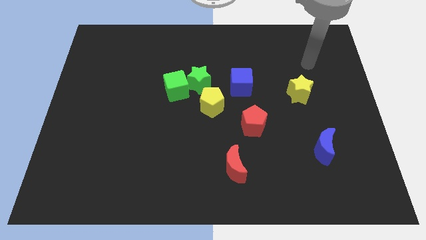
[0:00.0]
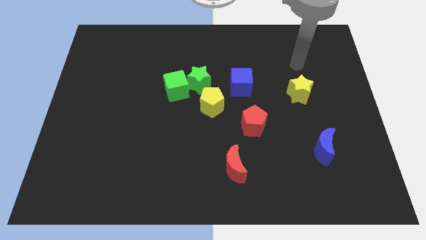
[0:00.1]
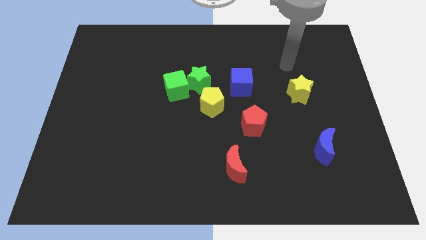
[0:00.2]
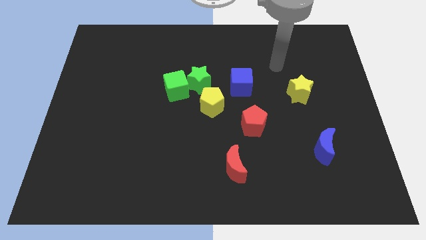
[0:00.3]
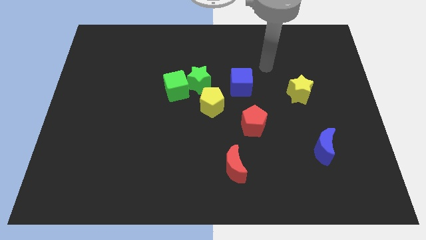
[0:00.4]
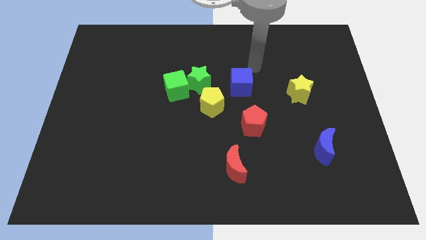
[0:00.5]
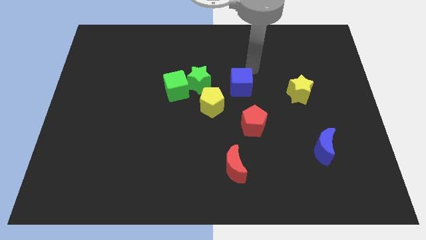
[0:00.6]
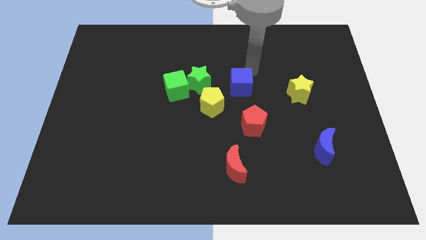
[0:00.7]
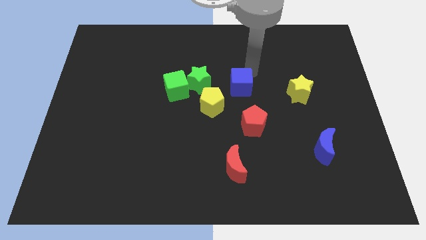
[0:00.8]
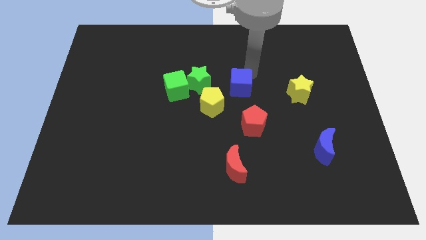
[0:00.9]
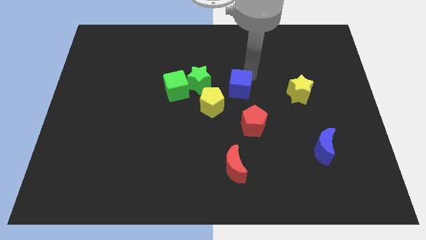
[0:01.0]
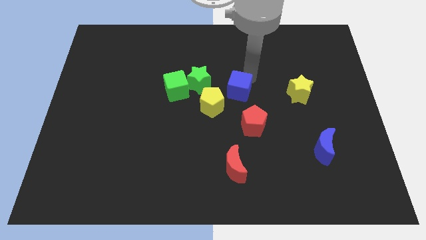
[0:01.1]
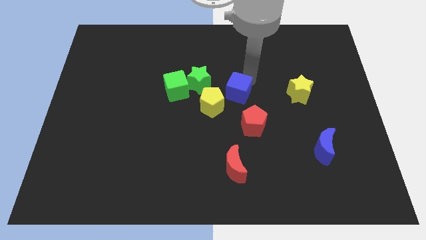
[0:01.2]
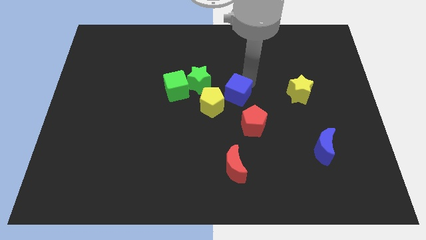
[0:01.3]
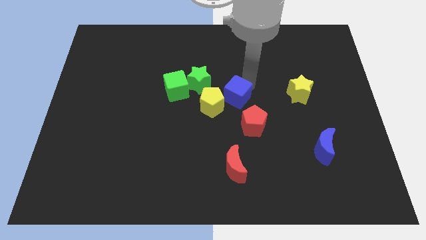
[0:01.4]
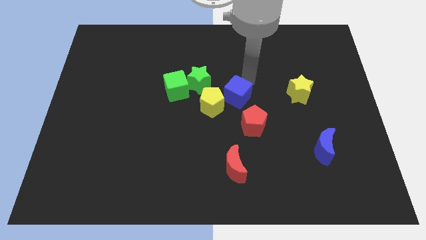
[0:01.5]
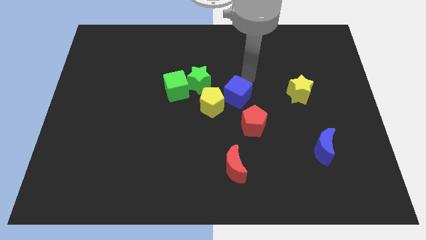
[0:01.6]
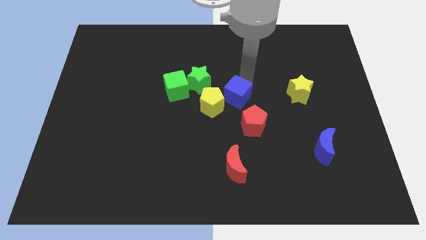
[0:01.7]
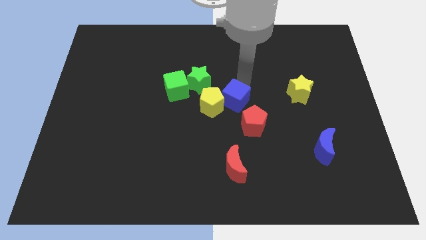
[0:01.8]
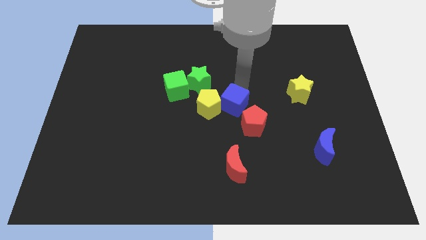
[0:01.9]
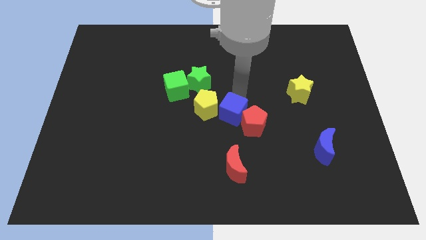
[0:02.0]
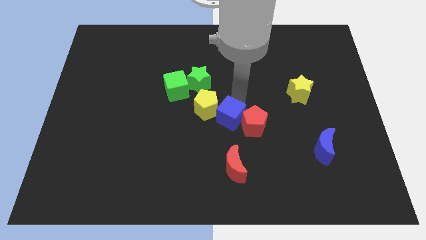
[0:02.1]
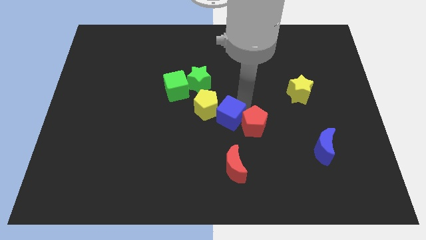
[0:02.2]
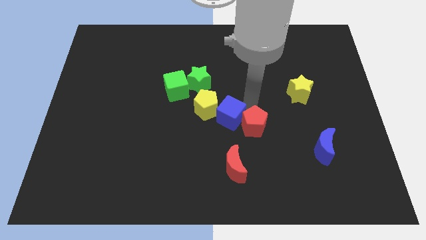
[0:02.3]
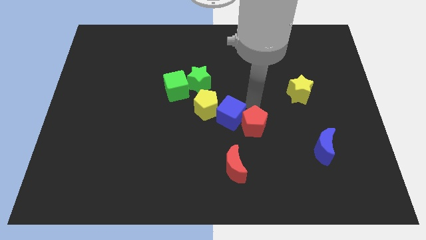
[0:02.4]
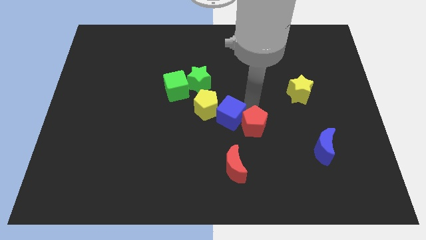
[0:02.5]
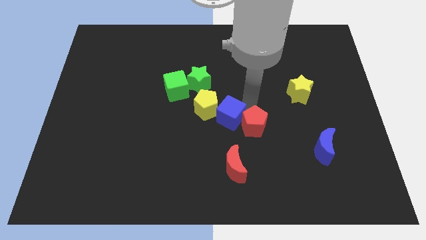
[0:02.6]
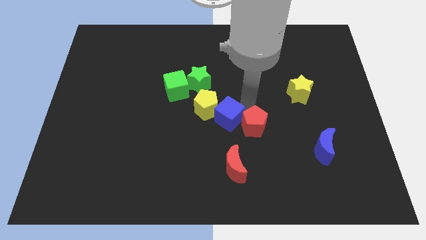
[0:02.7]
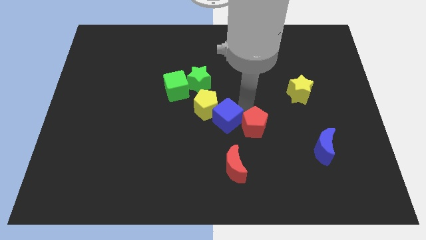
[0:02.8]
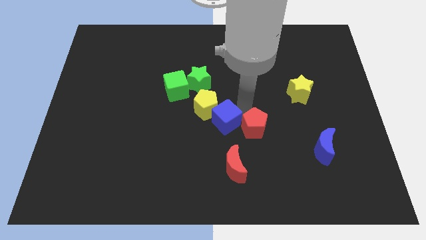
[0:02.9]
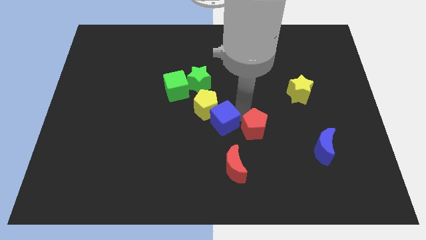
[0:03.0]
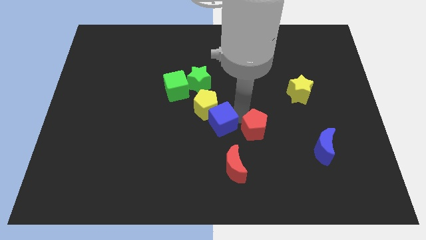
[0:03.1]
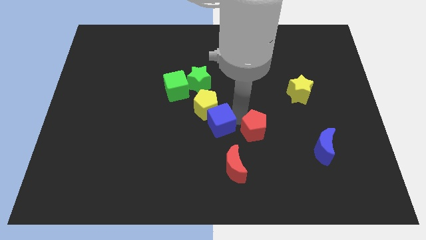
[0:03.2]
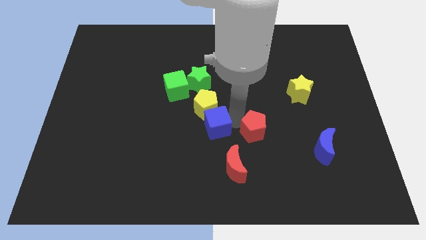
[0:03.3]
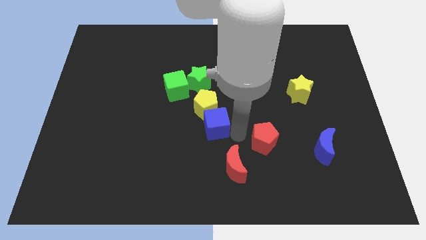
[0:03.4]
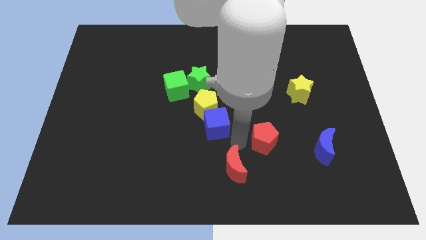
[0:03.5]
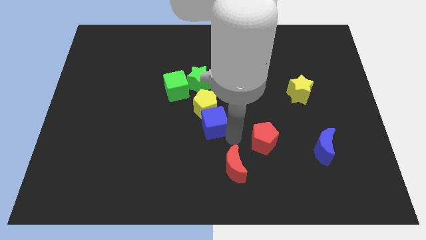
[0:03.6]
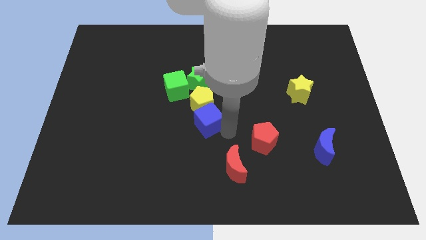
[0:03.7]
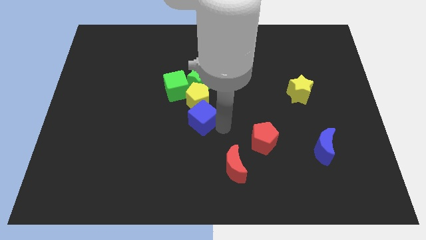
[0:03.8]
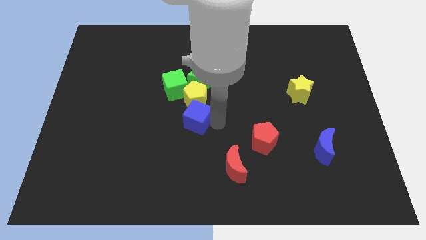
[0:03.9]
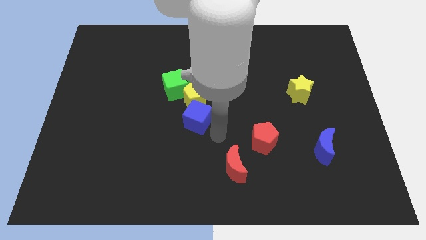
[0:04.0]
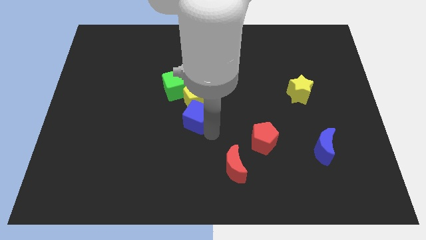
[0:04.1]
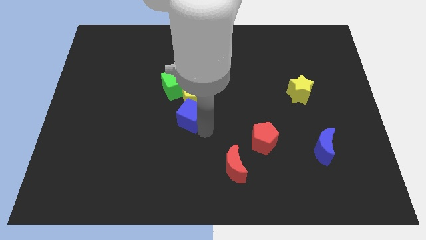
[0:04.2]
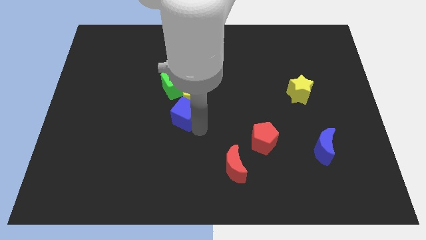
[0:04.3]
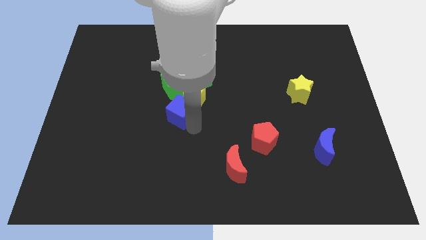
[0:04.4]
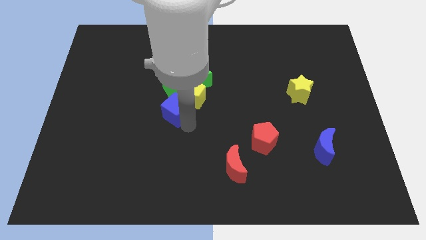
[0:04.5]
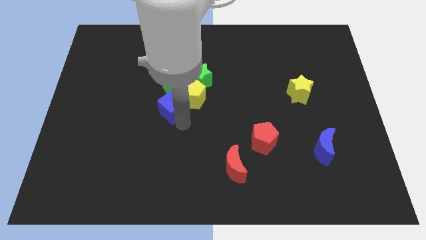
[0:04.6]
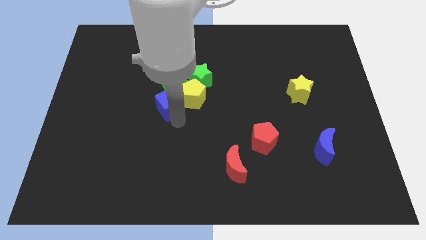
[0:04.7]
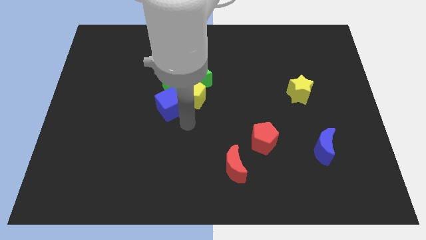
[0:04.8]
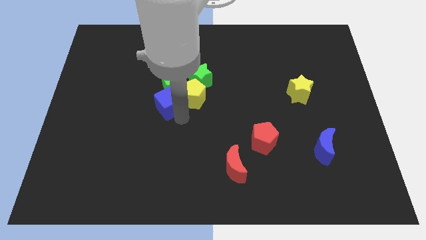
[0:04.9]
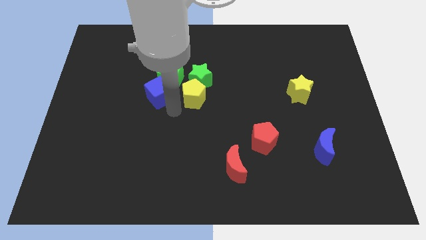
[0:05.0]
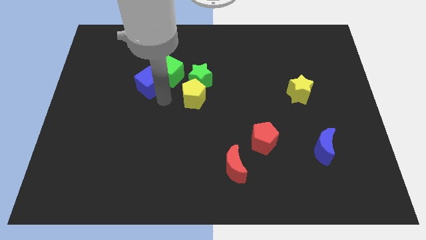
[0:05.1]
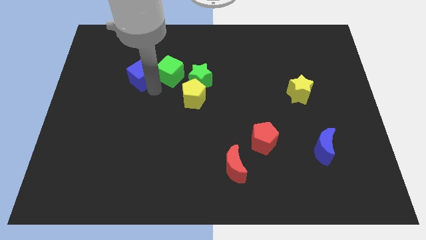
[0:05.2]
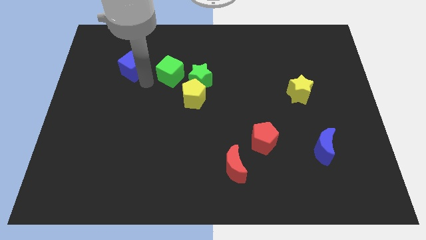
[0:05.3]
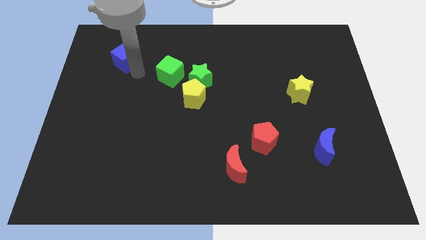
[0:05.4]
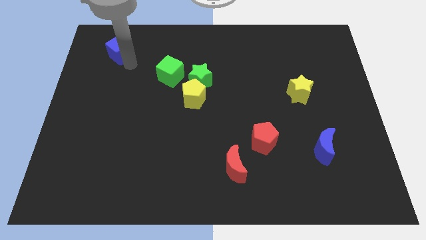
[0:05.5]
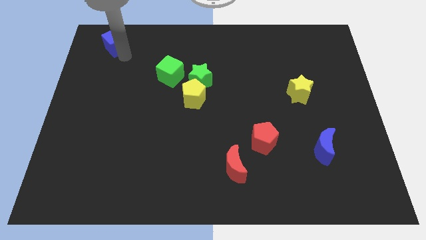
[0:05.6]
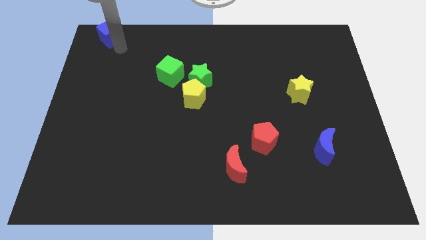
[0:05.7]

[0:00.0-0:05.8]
push the blue cube to the top left

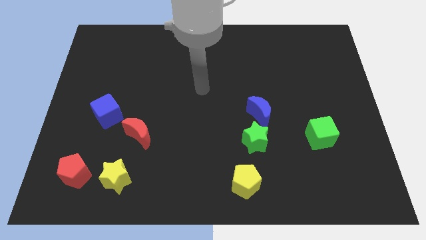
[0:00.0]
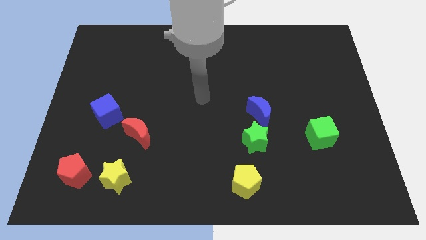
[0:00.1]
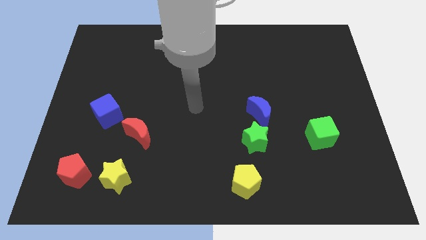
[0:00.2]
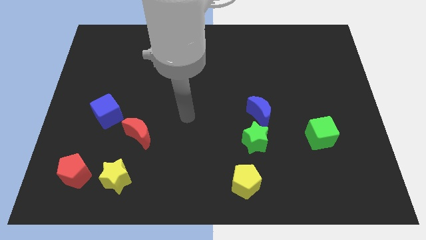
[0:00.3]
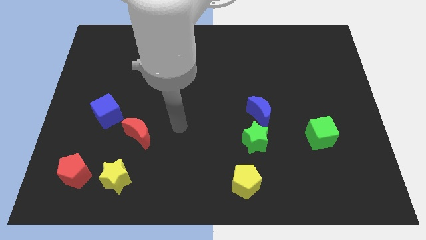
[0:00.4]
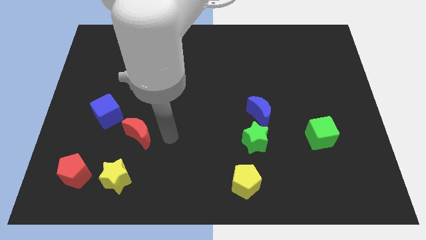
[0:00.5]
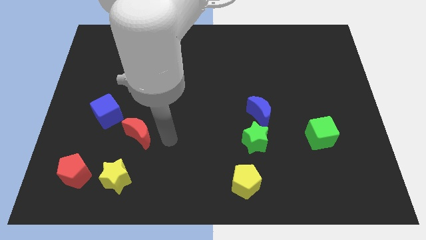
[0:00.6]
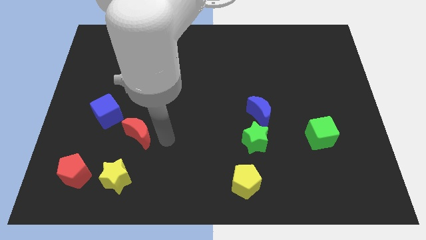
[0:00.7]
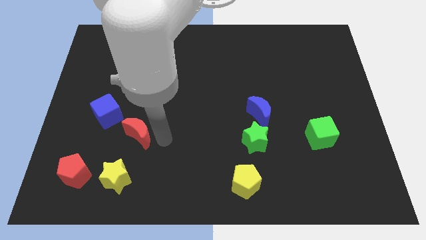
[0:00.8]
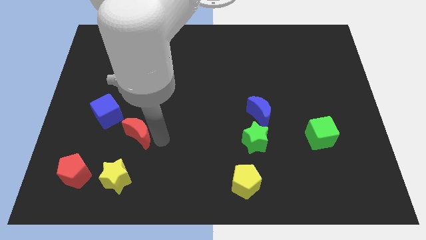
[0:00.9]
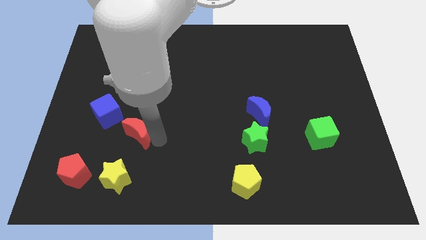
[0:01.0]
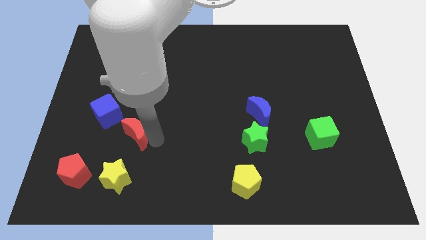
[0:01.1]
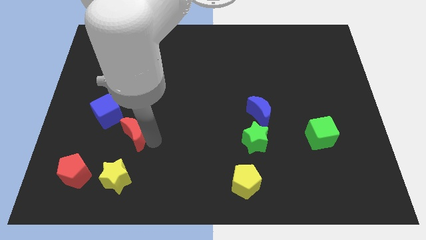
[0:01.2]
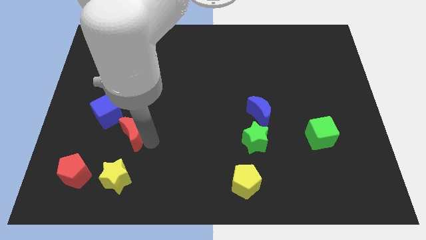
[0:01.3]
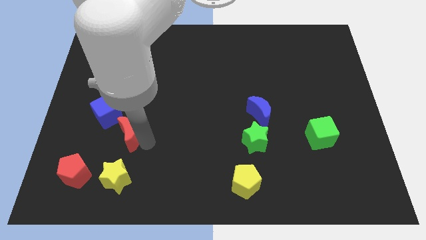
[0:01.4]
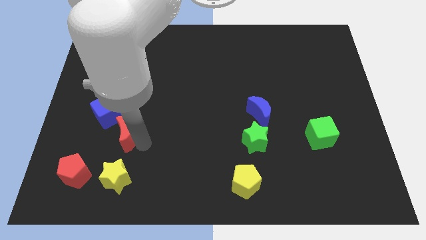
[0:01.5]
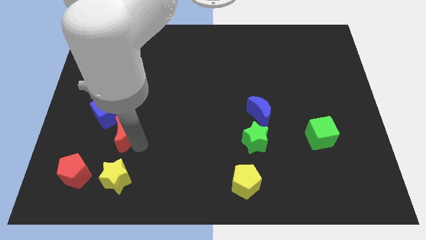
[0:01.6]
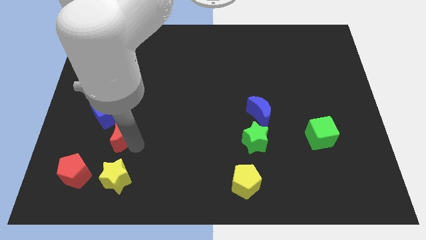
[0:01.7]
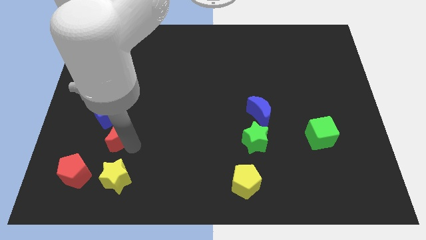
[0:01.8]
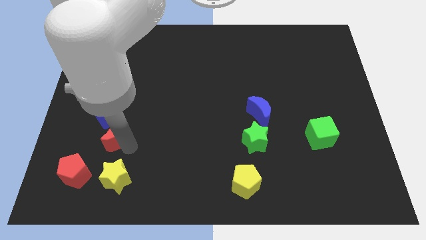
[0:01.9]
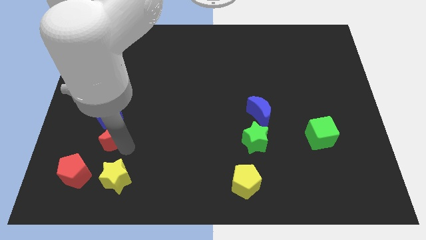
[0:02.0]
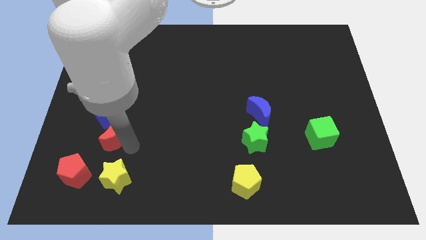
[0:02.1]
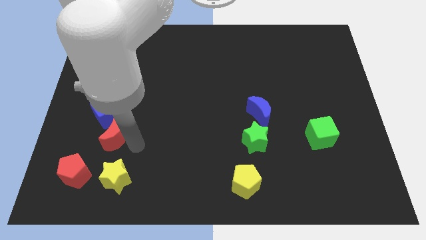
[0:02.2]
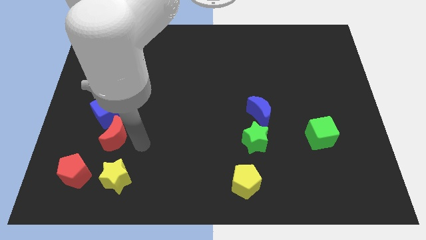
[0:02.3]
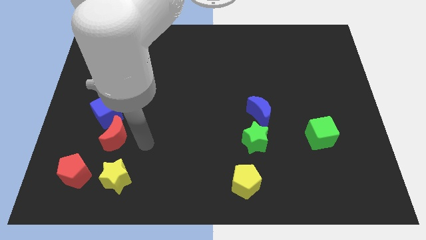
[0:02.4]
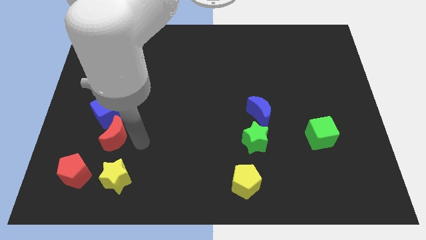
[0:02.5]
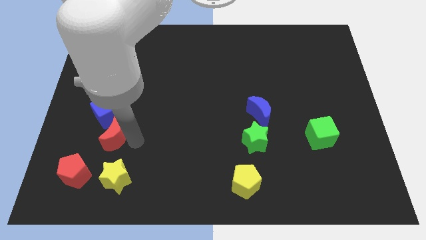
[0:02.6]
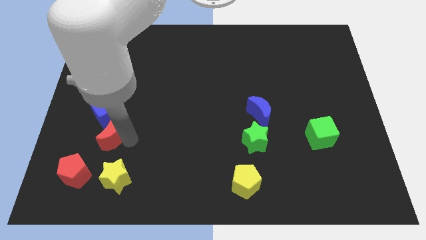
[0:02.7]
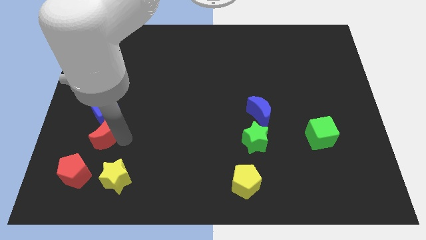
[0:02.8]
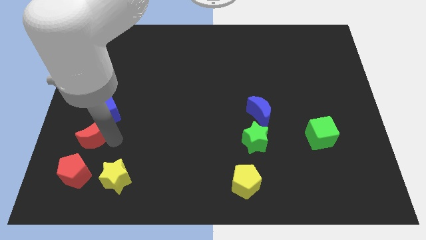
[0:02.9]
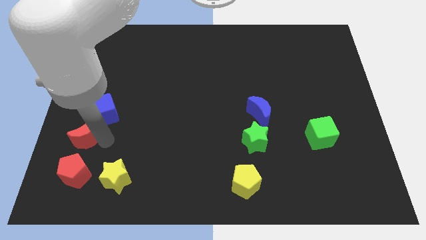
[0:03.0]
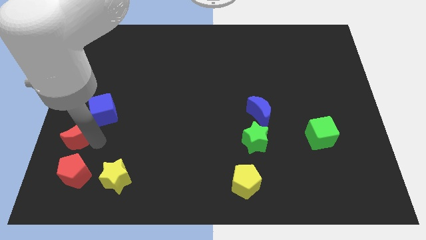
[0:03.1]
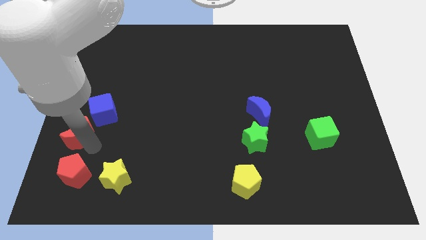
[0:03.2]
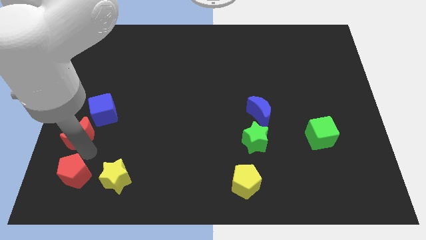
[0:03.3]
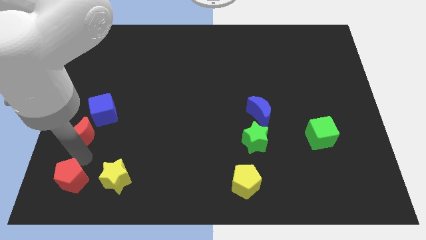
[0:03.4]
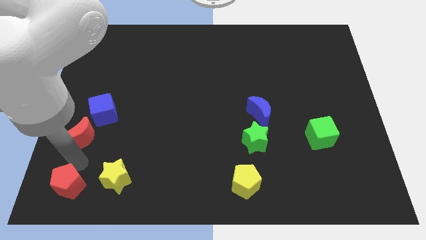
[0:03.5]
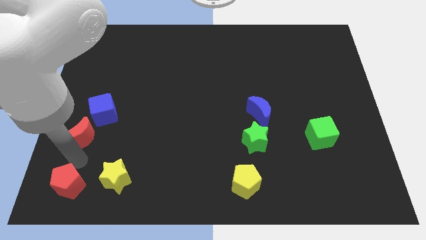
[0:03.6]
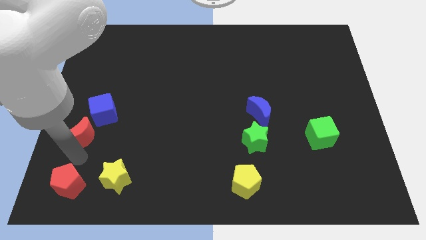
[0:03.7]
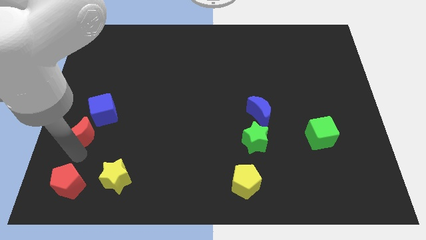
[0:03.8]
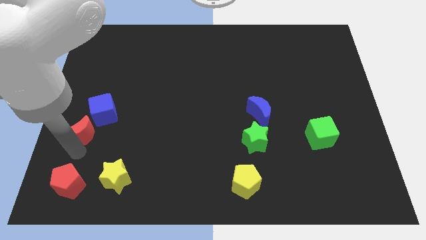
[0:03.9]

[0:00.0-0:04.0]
slide the red moon to the left side of the board
